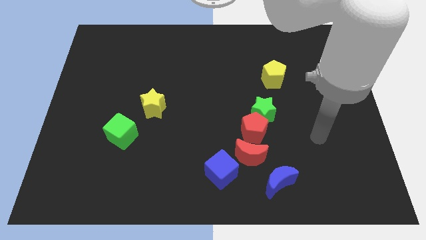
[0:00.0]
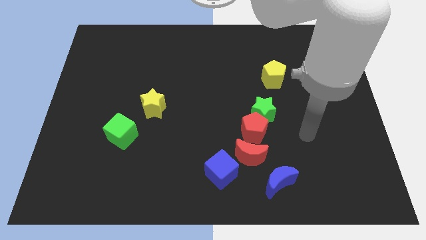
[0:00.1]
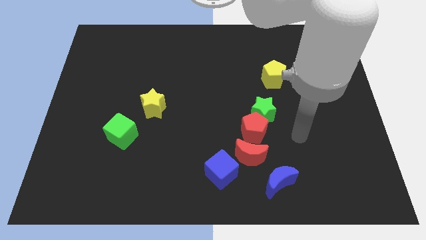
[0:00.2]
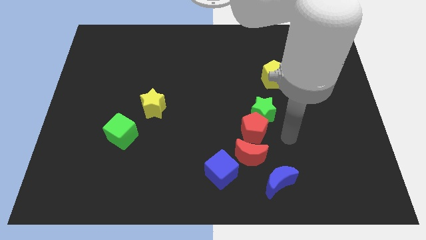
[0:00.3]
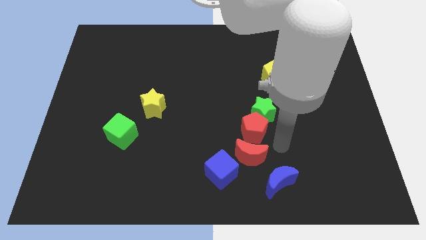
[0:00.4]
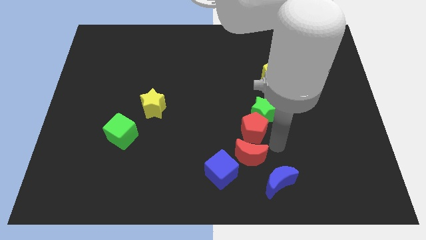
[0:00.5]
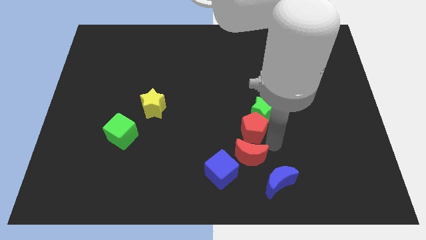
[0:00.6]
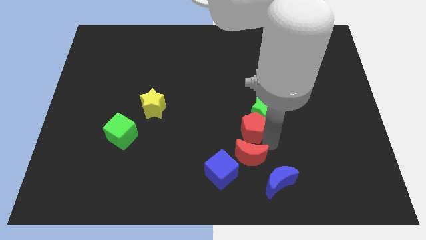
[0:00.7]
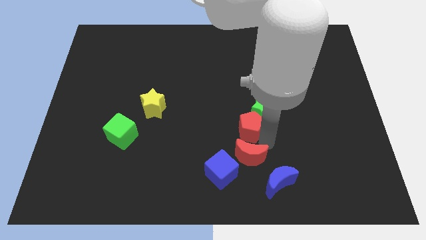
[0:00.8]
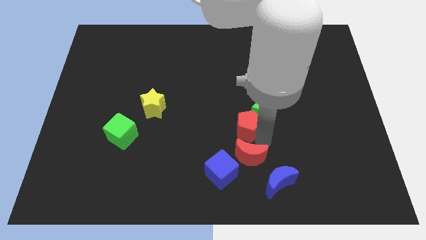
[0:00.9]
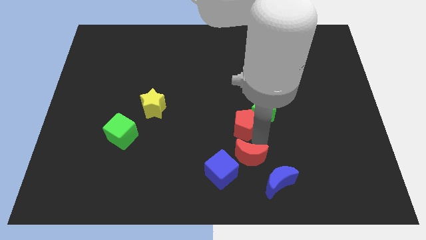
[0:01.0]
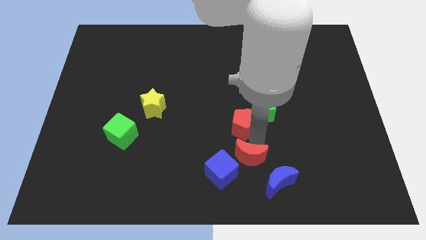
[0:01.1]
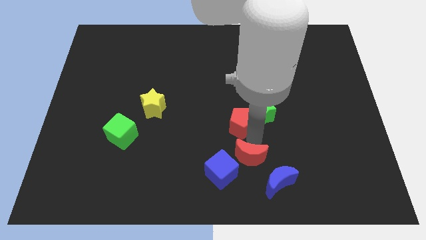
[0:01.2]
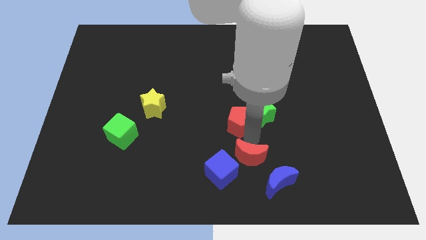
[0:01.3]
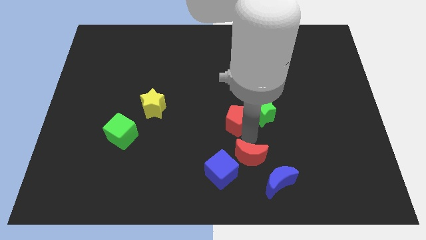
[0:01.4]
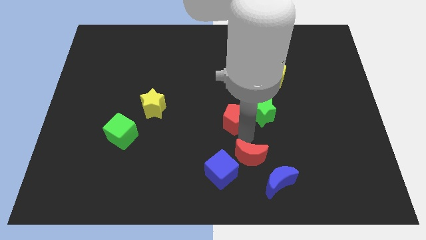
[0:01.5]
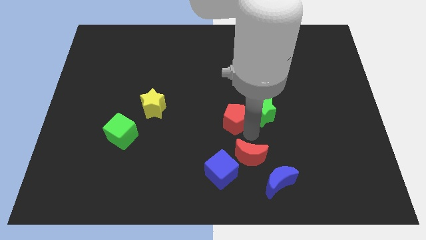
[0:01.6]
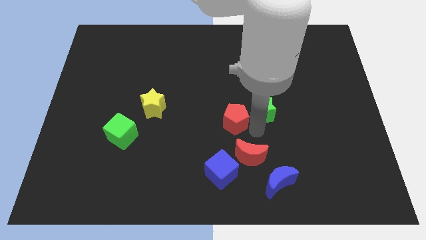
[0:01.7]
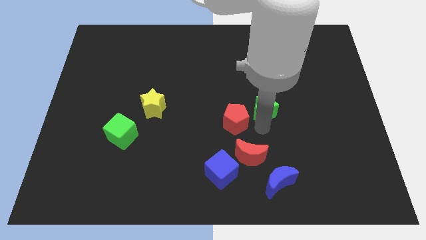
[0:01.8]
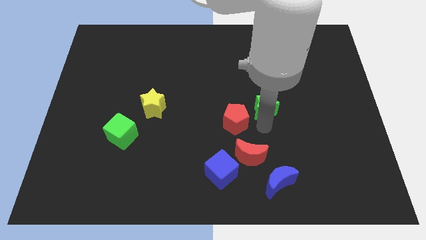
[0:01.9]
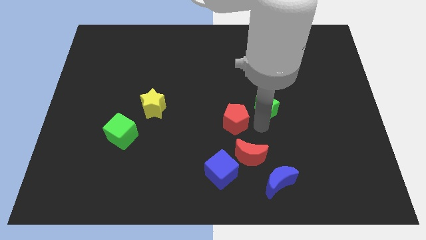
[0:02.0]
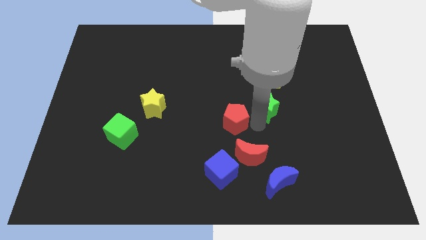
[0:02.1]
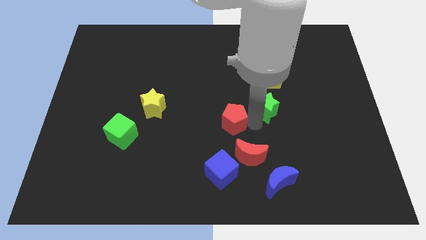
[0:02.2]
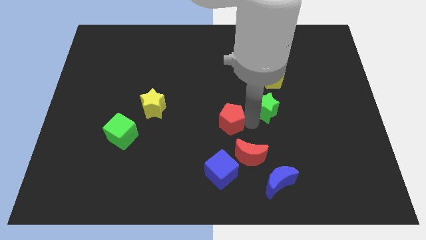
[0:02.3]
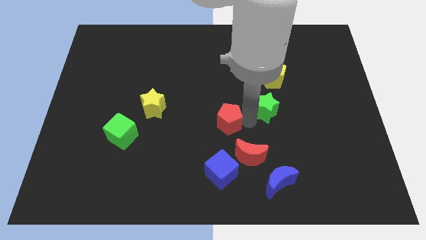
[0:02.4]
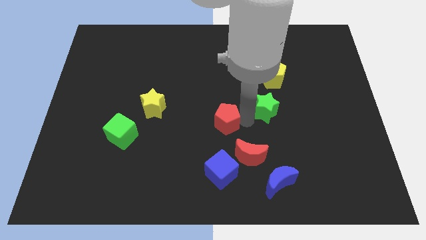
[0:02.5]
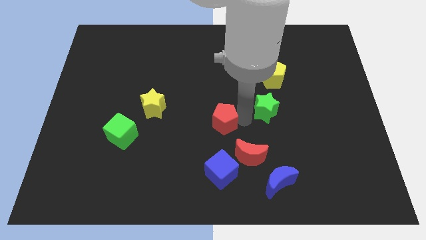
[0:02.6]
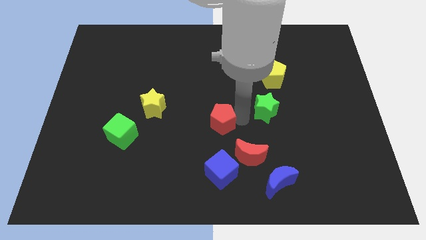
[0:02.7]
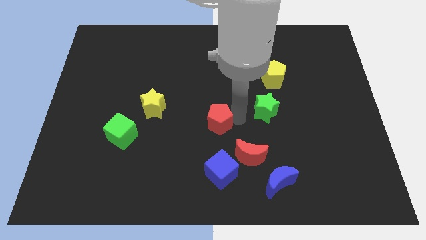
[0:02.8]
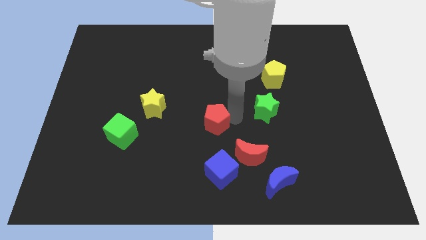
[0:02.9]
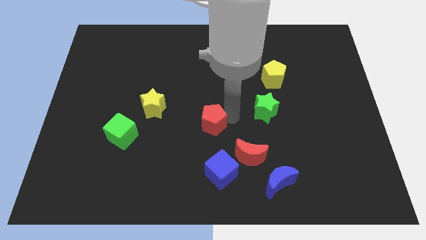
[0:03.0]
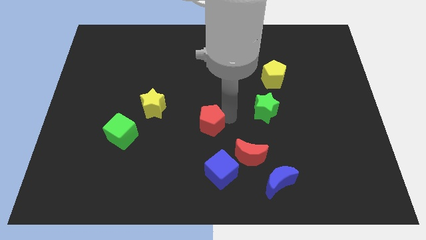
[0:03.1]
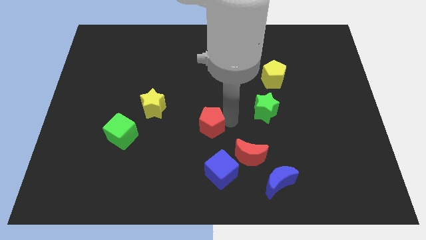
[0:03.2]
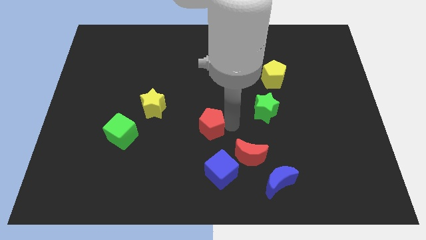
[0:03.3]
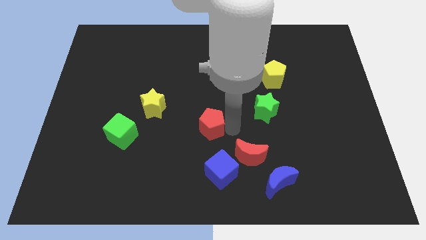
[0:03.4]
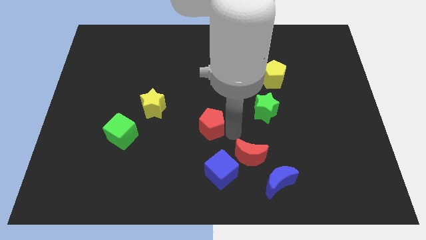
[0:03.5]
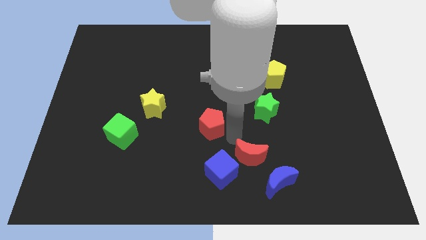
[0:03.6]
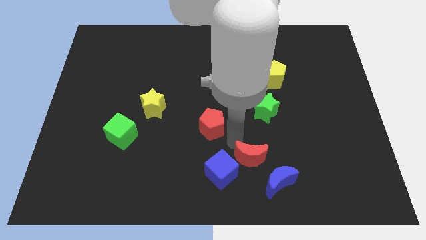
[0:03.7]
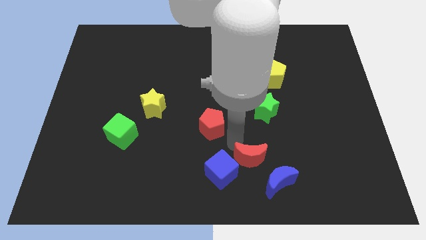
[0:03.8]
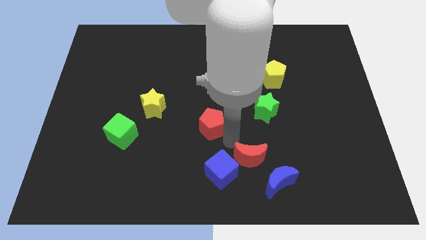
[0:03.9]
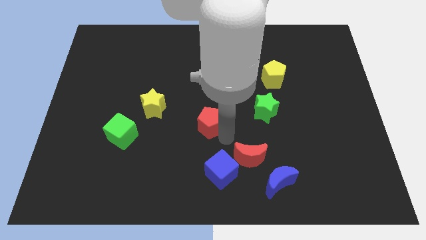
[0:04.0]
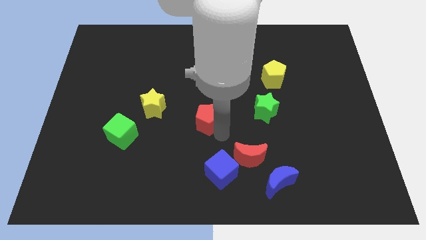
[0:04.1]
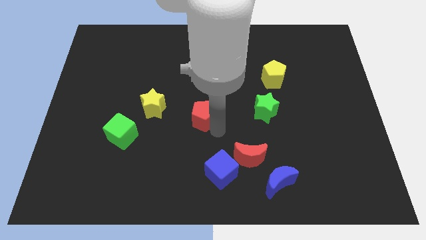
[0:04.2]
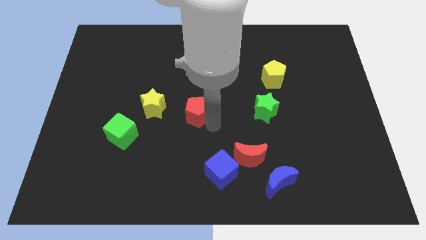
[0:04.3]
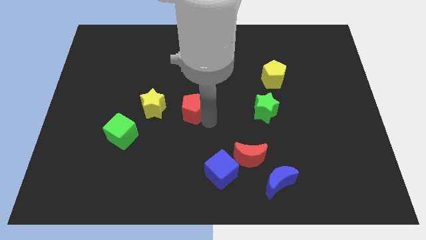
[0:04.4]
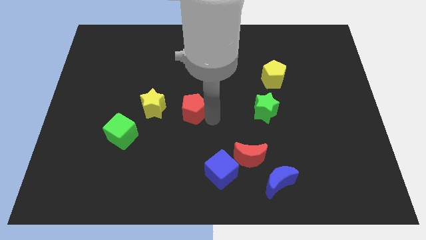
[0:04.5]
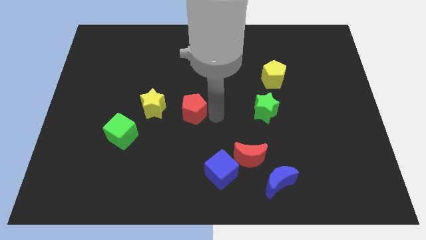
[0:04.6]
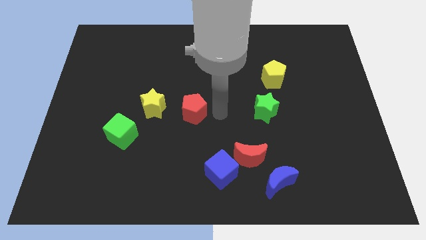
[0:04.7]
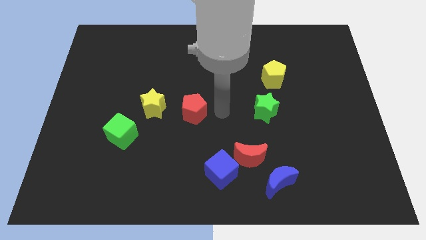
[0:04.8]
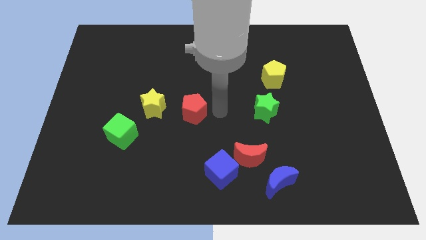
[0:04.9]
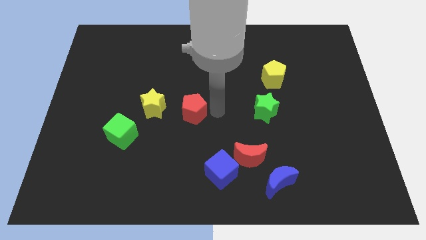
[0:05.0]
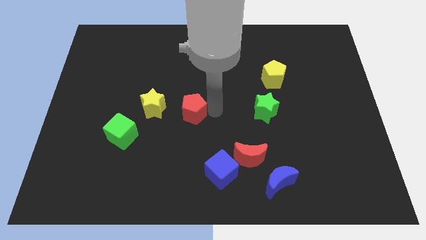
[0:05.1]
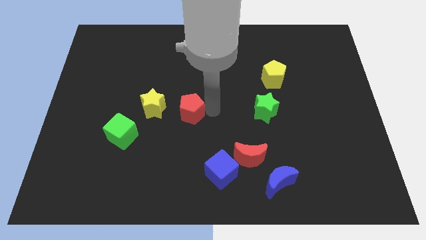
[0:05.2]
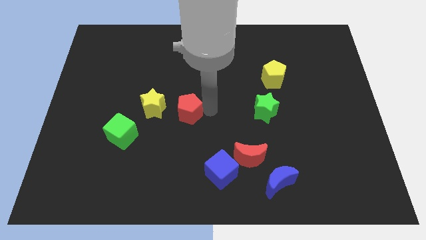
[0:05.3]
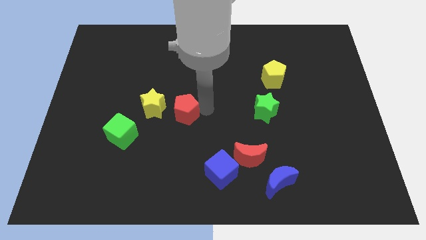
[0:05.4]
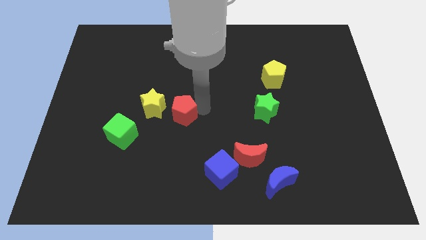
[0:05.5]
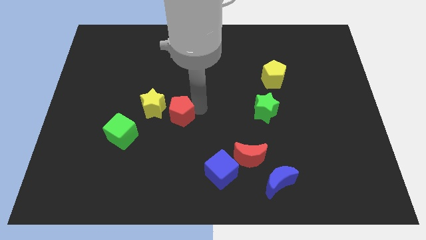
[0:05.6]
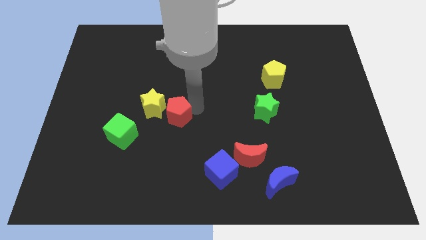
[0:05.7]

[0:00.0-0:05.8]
move the red pentagon next to the yellow star

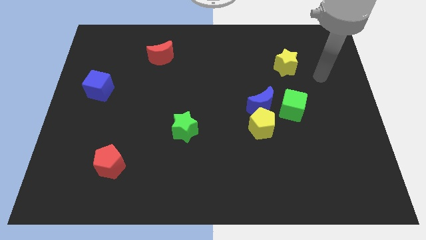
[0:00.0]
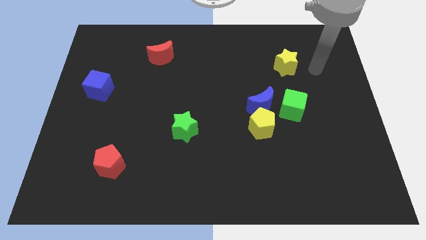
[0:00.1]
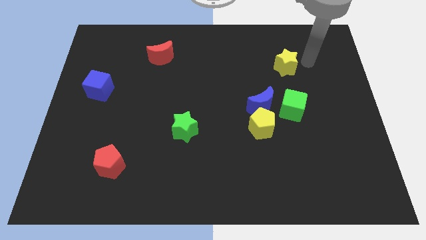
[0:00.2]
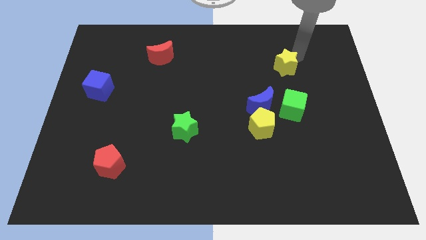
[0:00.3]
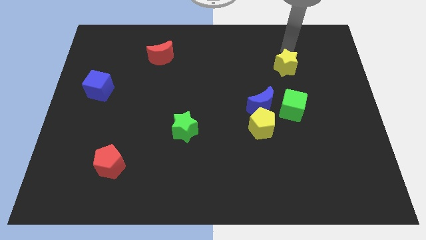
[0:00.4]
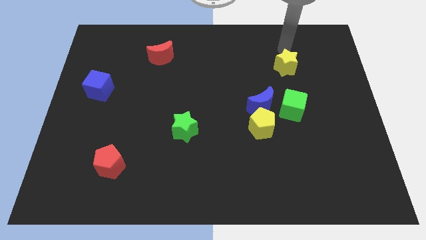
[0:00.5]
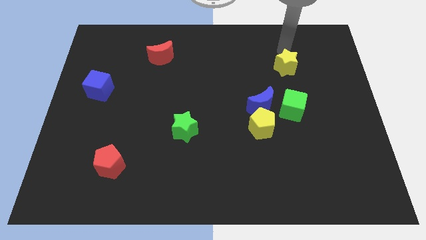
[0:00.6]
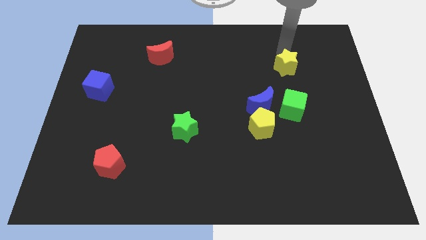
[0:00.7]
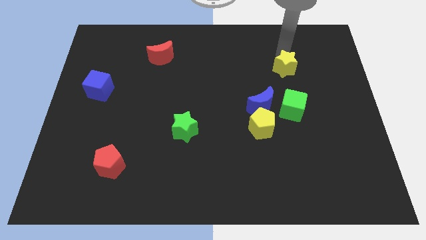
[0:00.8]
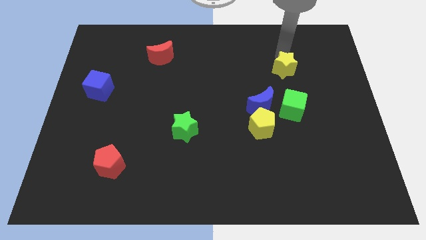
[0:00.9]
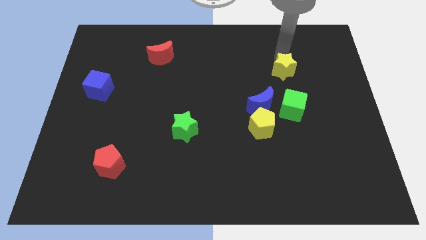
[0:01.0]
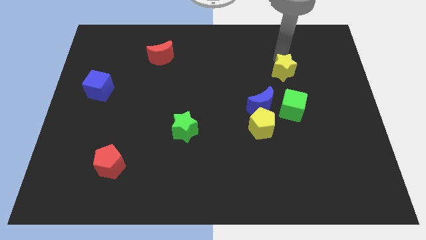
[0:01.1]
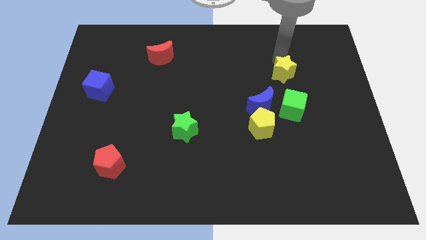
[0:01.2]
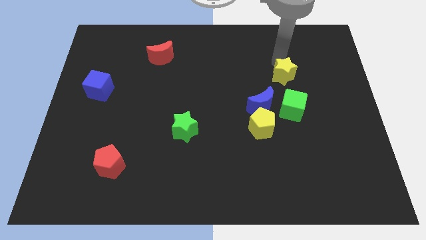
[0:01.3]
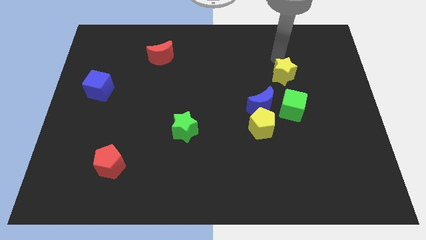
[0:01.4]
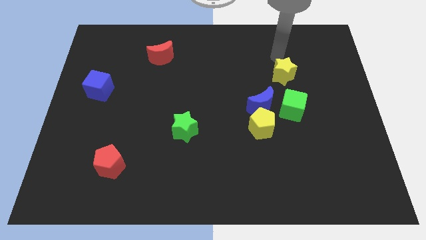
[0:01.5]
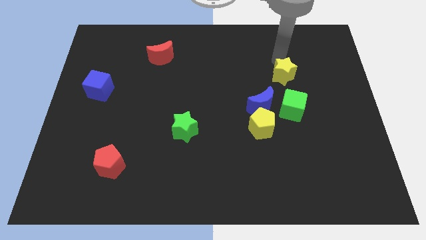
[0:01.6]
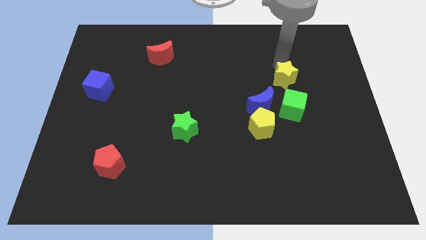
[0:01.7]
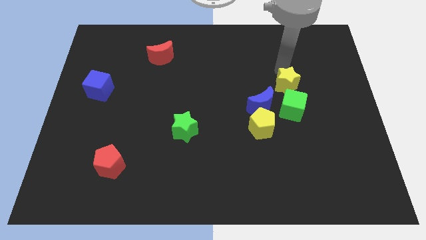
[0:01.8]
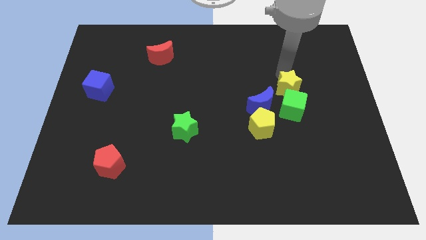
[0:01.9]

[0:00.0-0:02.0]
put the yellow star towards the green cube

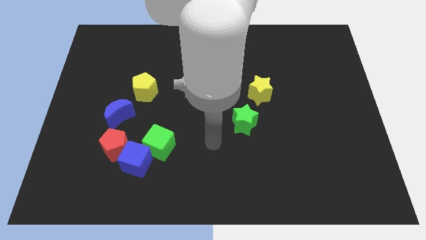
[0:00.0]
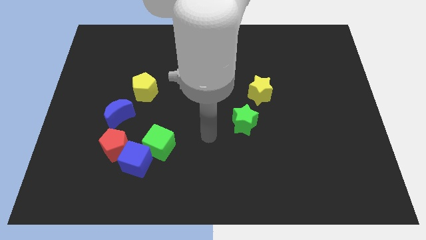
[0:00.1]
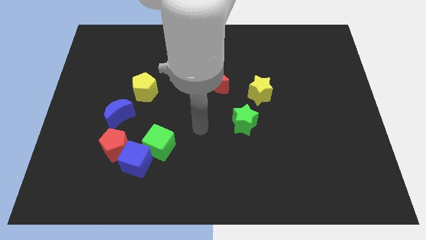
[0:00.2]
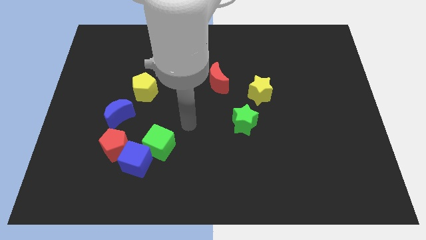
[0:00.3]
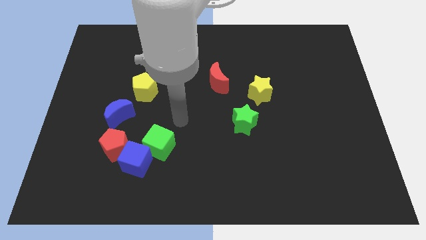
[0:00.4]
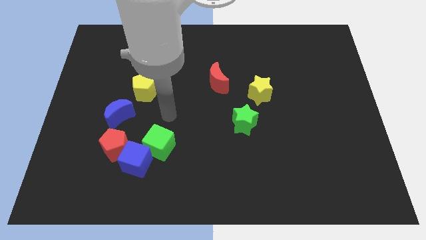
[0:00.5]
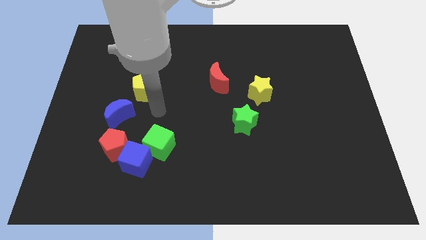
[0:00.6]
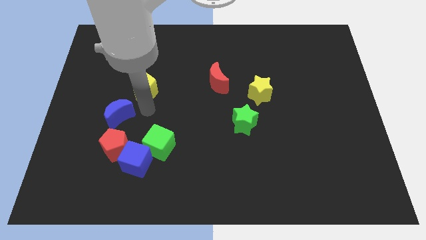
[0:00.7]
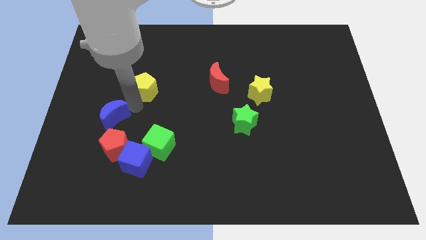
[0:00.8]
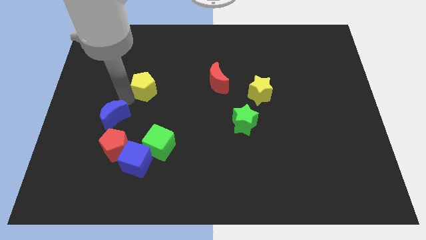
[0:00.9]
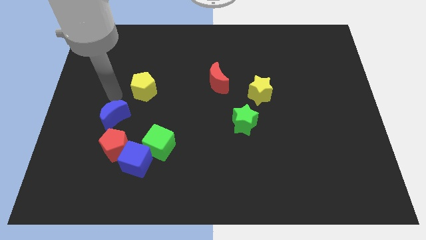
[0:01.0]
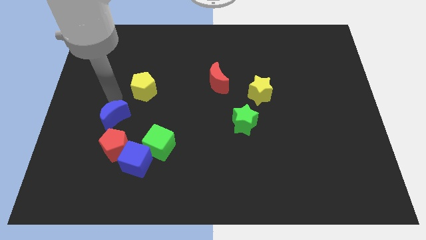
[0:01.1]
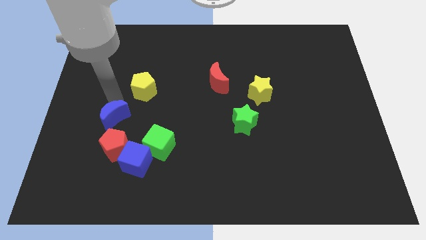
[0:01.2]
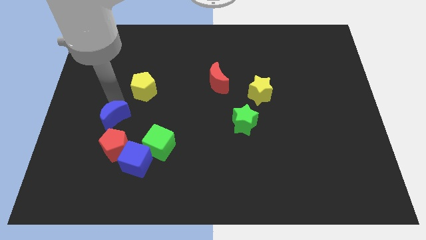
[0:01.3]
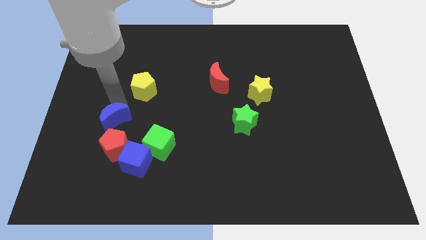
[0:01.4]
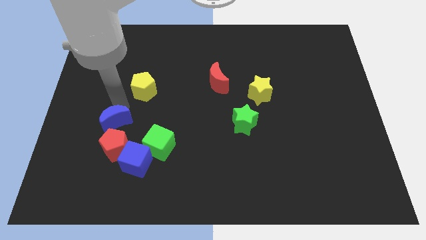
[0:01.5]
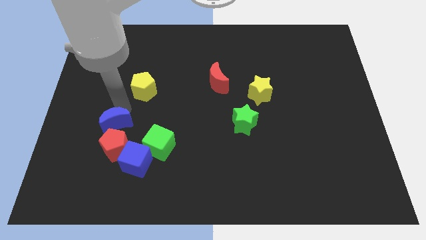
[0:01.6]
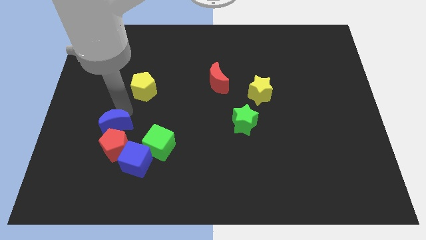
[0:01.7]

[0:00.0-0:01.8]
put the blue moon to the red pentagon
